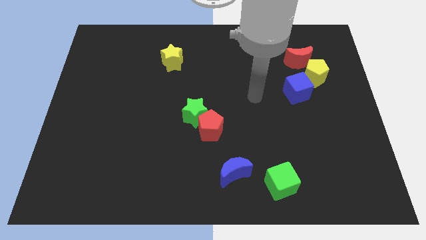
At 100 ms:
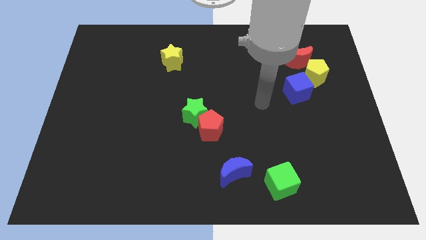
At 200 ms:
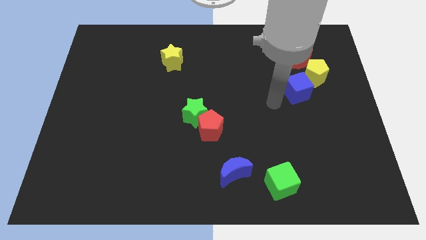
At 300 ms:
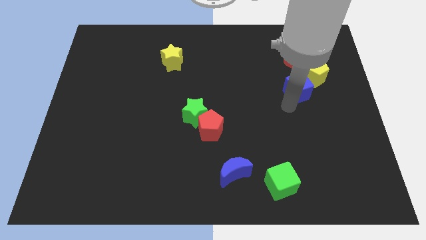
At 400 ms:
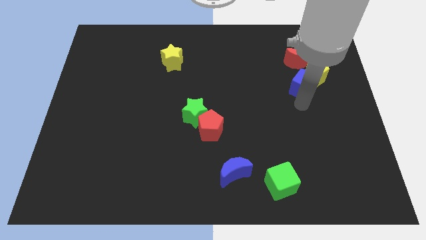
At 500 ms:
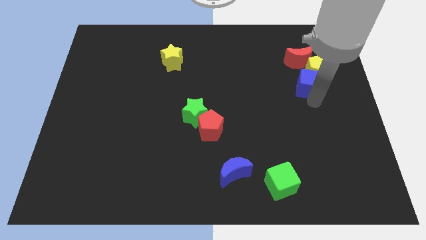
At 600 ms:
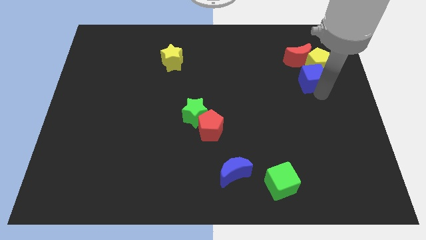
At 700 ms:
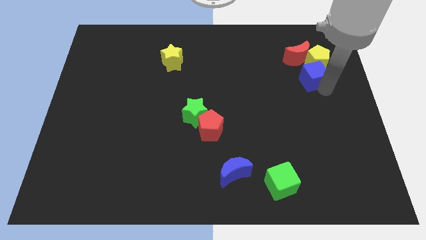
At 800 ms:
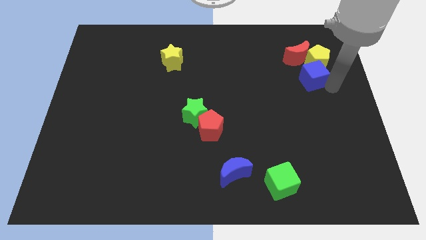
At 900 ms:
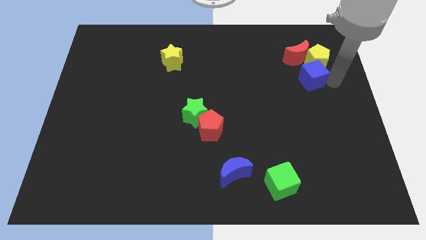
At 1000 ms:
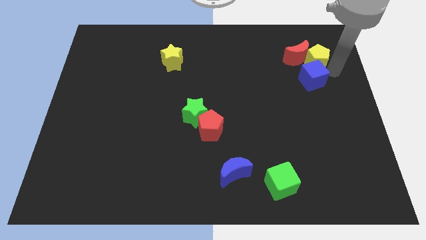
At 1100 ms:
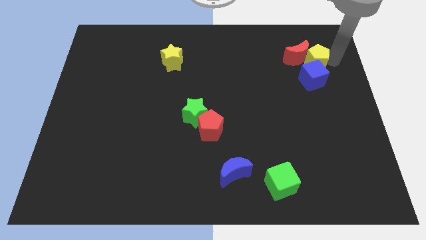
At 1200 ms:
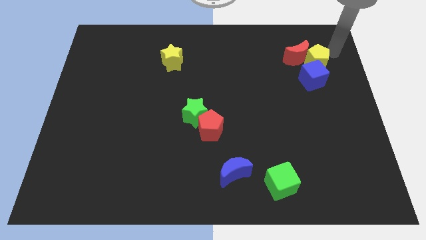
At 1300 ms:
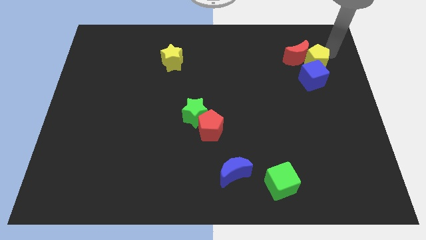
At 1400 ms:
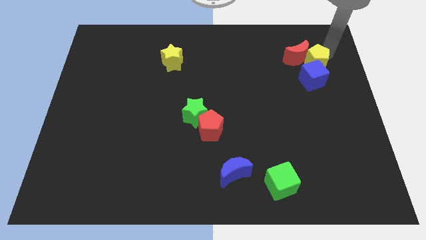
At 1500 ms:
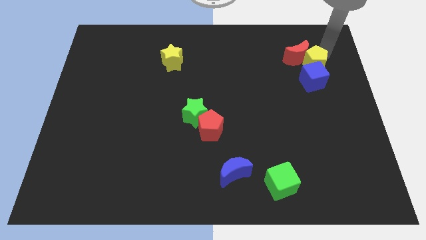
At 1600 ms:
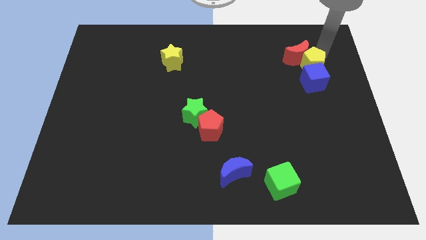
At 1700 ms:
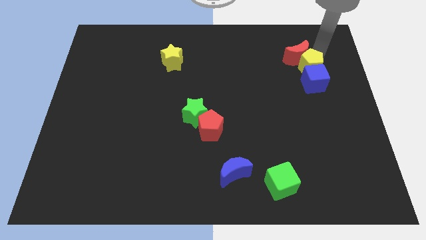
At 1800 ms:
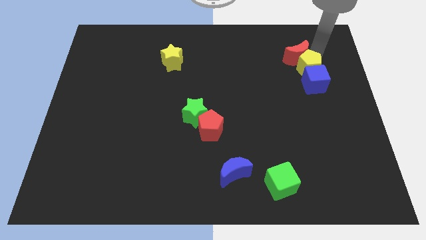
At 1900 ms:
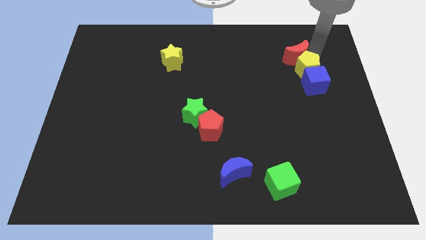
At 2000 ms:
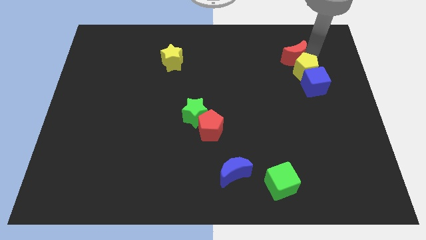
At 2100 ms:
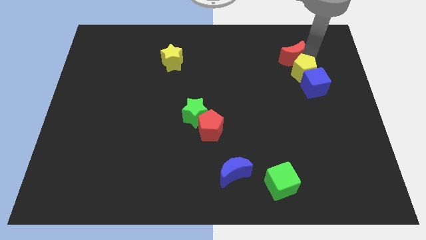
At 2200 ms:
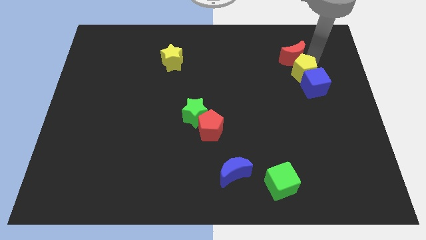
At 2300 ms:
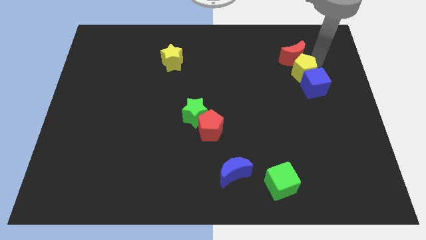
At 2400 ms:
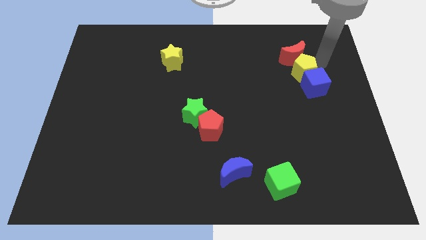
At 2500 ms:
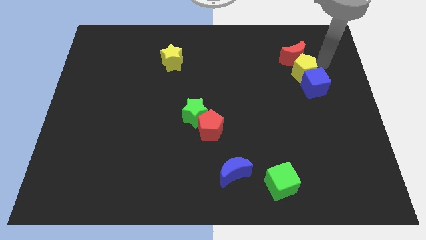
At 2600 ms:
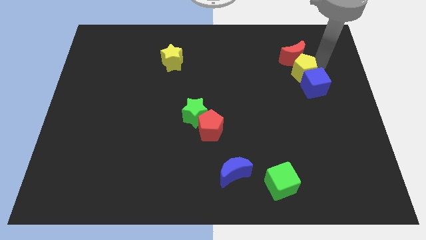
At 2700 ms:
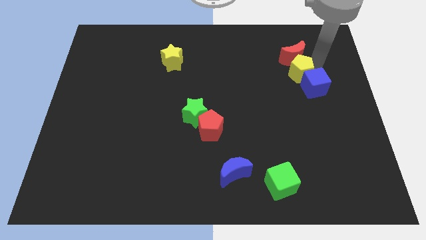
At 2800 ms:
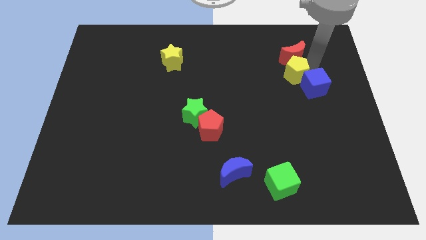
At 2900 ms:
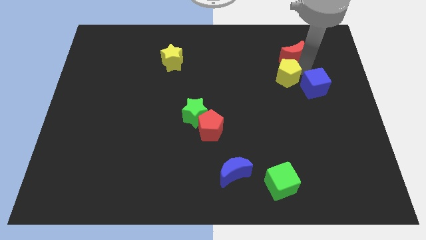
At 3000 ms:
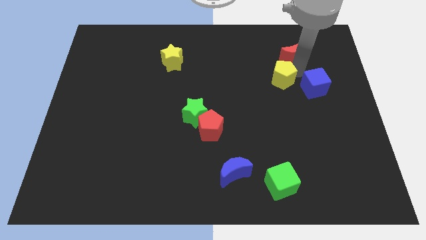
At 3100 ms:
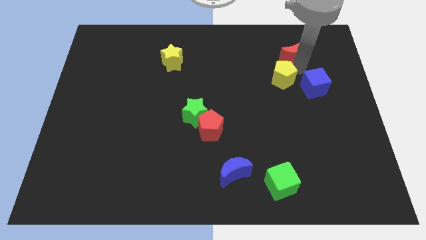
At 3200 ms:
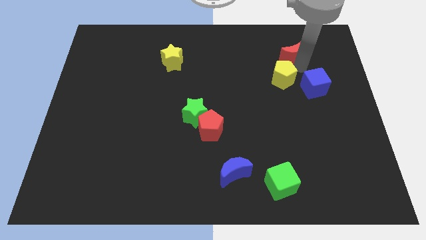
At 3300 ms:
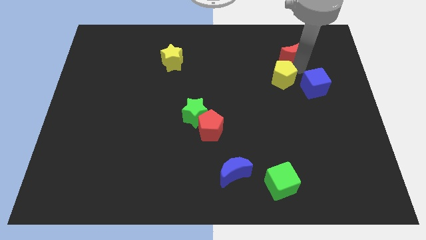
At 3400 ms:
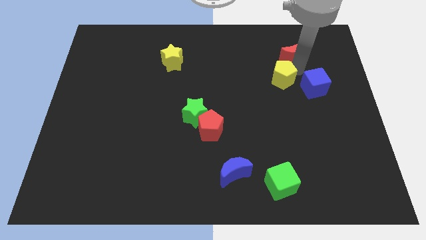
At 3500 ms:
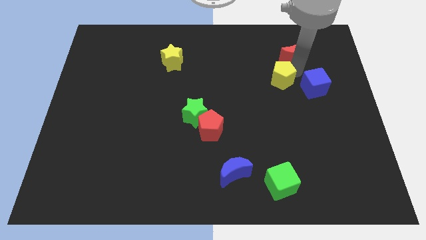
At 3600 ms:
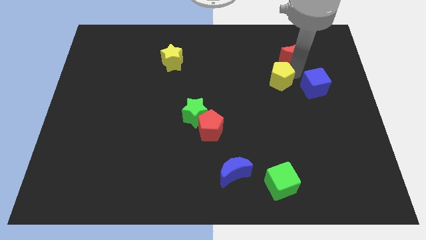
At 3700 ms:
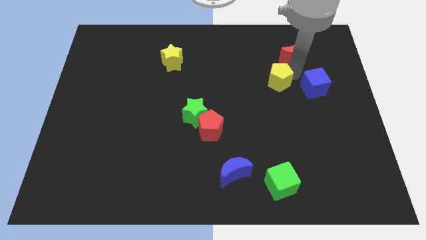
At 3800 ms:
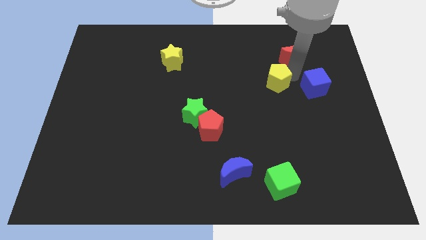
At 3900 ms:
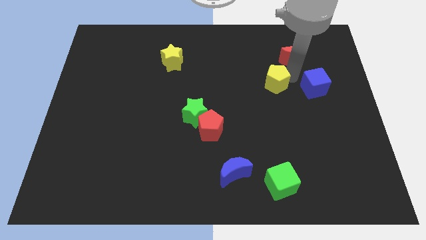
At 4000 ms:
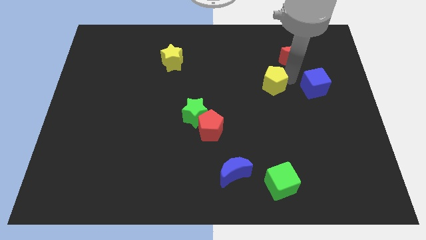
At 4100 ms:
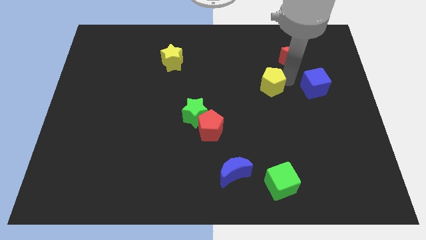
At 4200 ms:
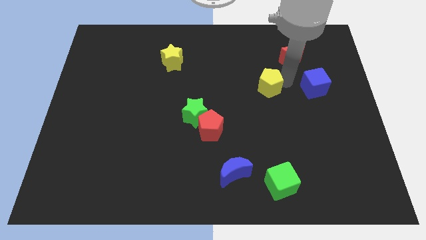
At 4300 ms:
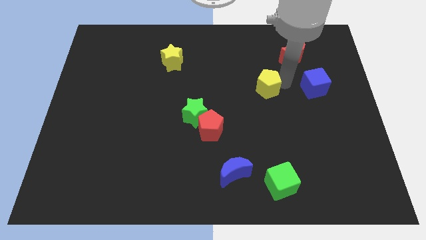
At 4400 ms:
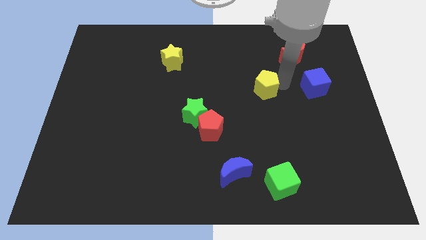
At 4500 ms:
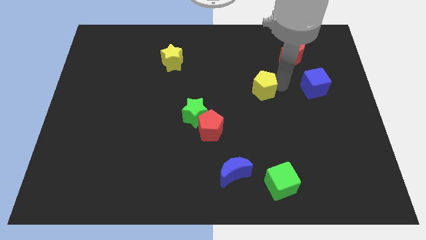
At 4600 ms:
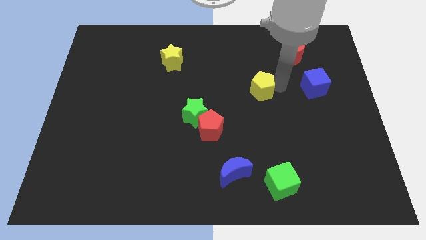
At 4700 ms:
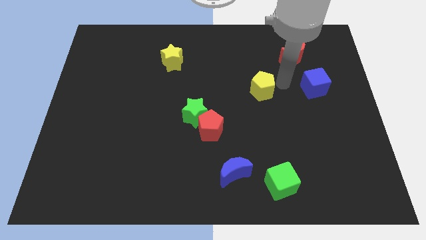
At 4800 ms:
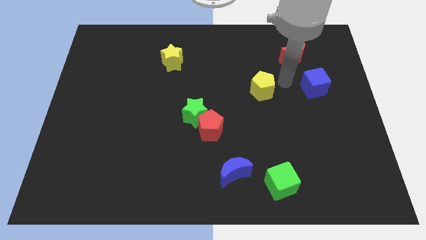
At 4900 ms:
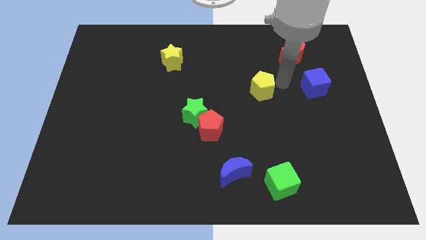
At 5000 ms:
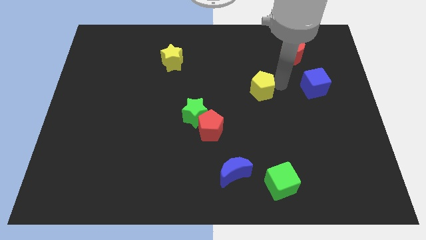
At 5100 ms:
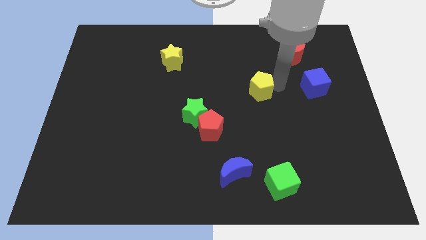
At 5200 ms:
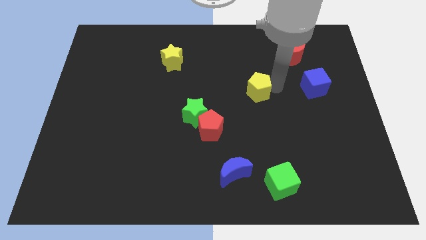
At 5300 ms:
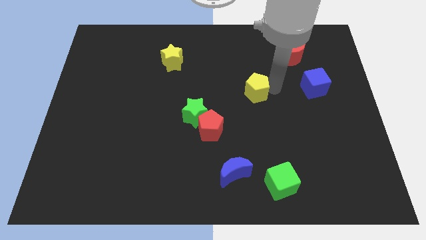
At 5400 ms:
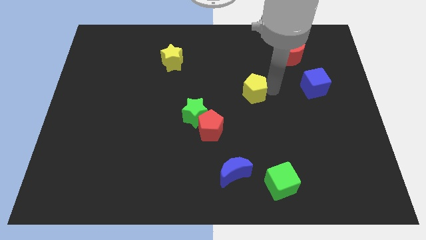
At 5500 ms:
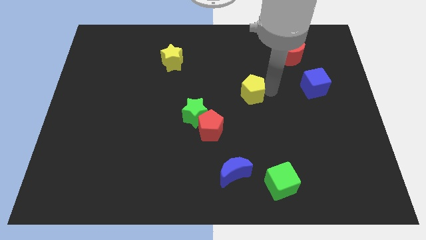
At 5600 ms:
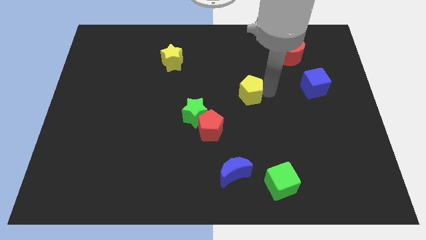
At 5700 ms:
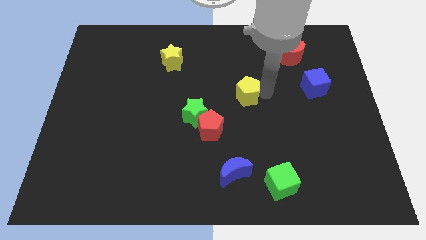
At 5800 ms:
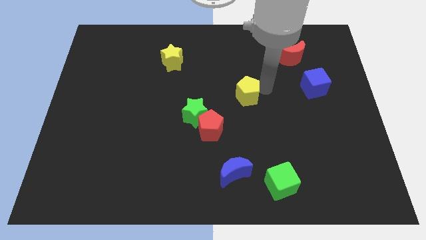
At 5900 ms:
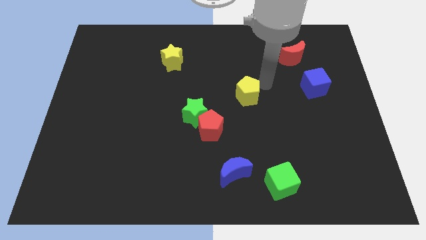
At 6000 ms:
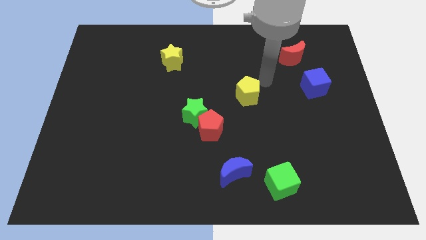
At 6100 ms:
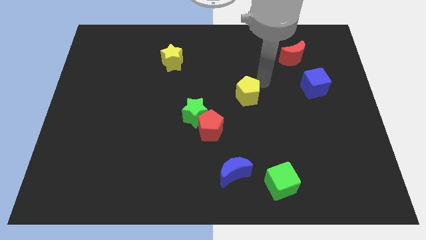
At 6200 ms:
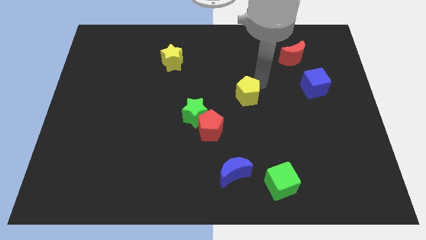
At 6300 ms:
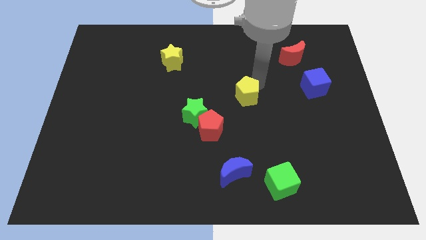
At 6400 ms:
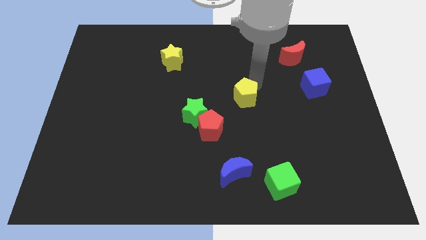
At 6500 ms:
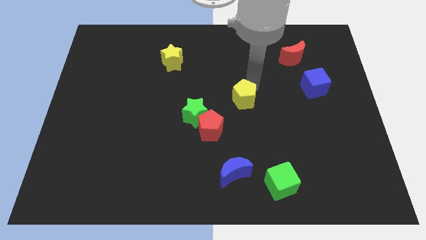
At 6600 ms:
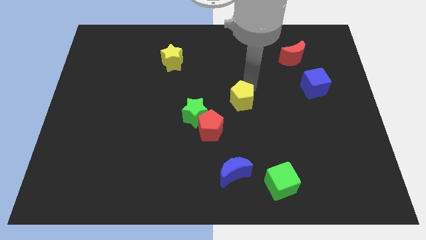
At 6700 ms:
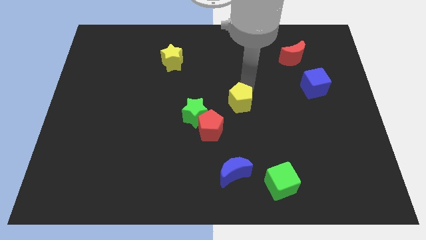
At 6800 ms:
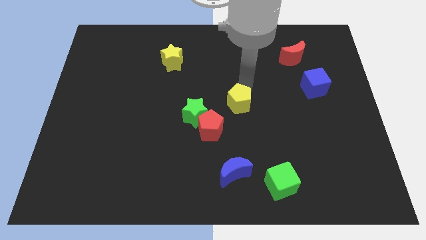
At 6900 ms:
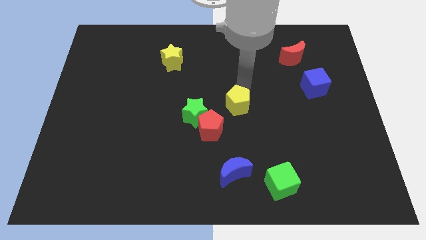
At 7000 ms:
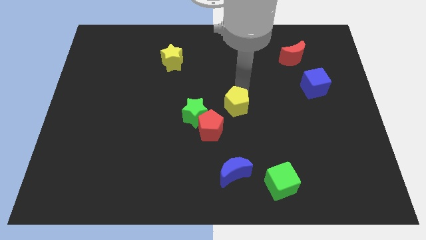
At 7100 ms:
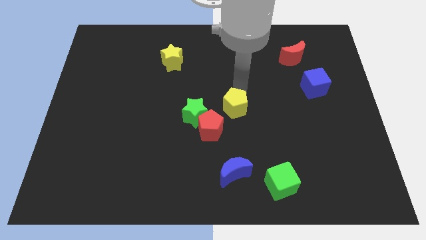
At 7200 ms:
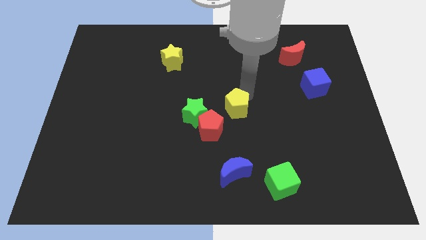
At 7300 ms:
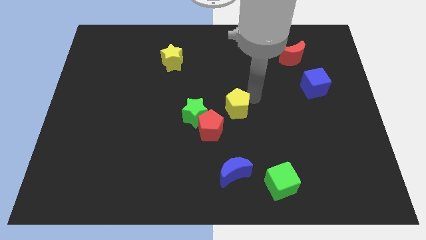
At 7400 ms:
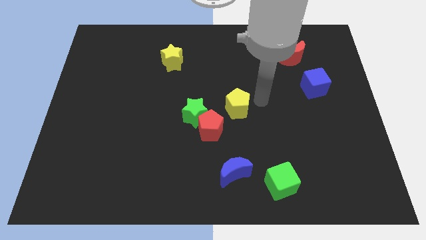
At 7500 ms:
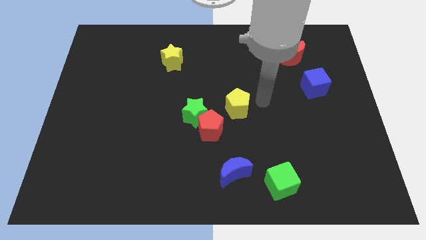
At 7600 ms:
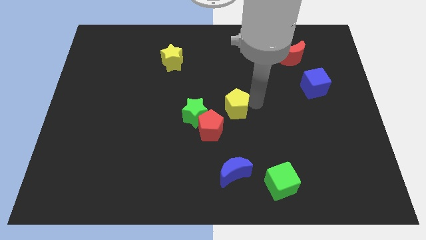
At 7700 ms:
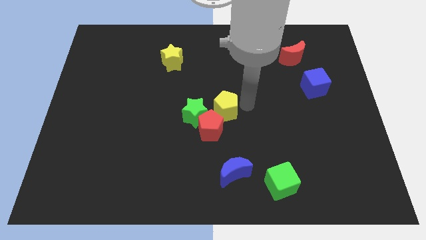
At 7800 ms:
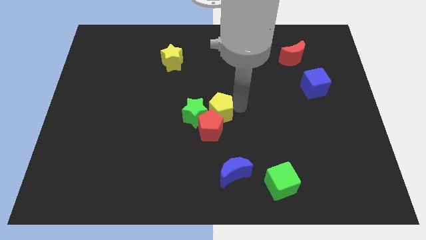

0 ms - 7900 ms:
put the yellow pentagon close to the green star
